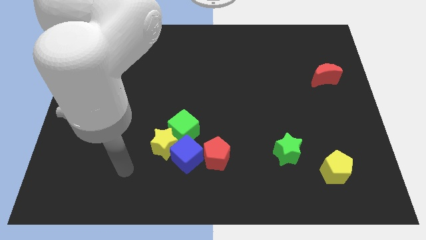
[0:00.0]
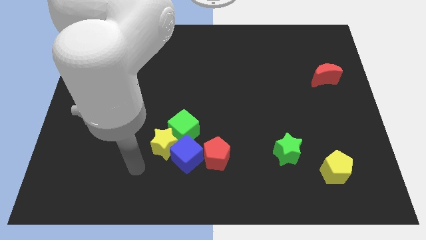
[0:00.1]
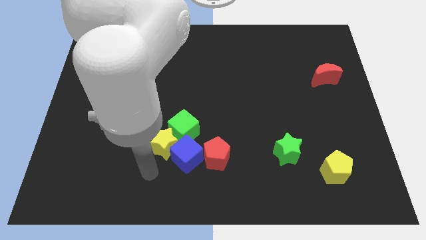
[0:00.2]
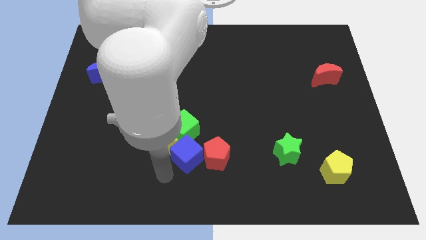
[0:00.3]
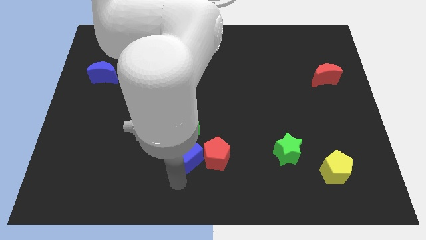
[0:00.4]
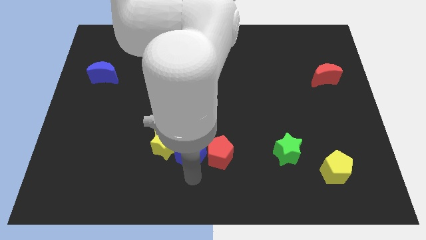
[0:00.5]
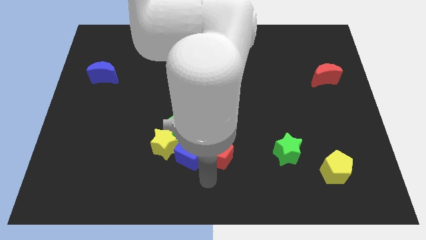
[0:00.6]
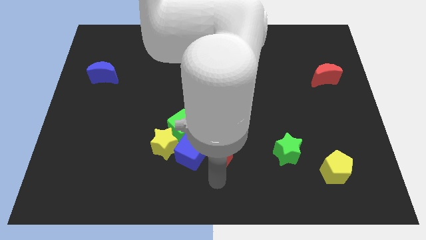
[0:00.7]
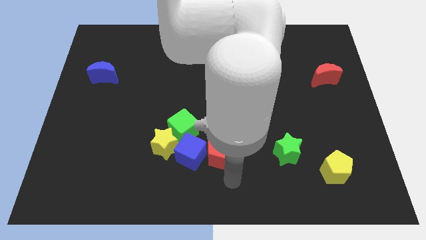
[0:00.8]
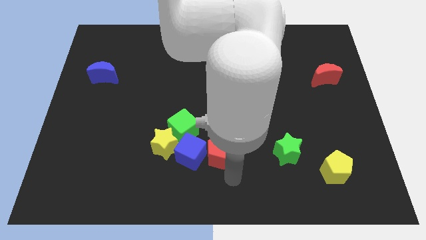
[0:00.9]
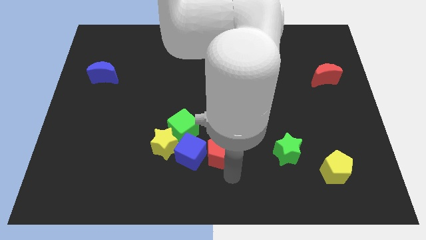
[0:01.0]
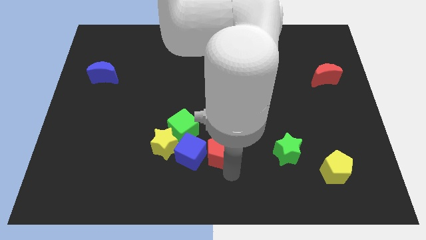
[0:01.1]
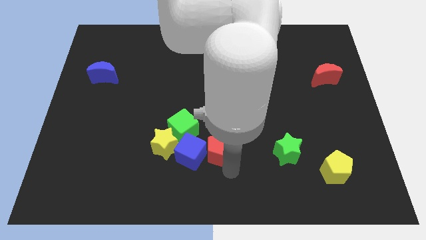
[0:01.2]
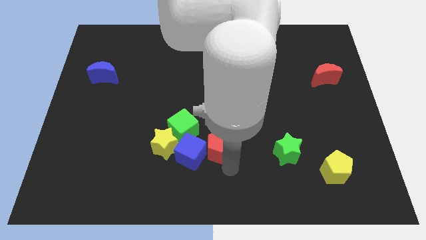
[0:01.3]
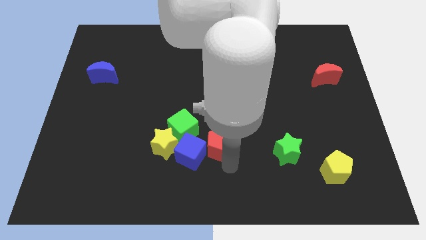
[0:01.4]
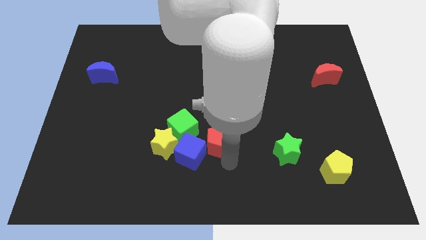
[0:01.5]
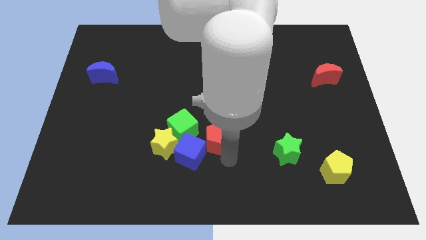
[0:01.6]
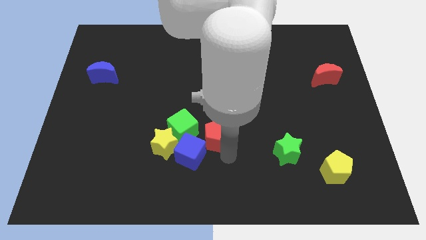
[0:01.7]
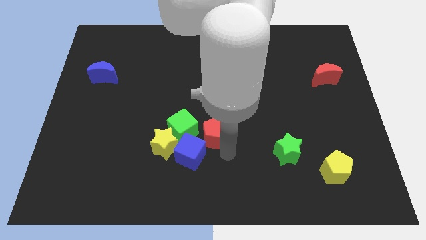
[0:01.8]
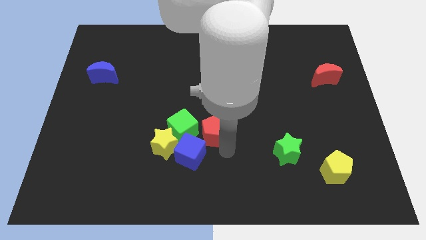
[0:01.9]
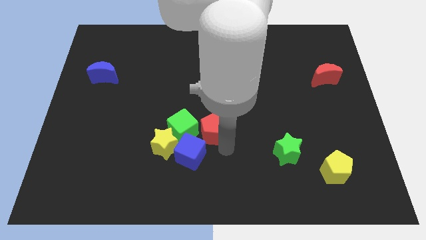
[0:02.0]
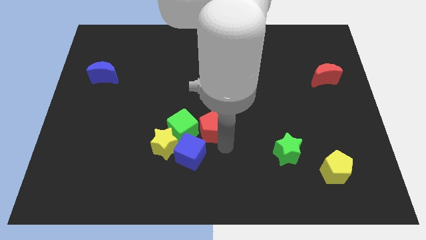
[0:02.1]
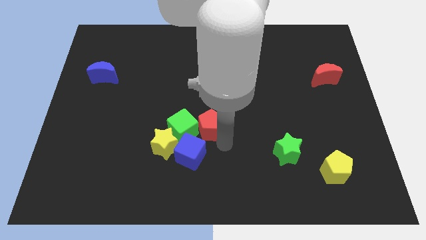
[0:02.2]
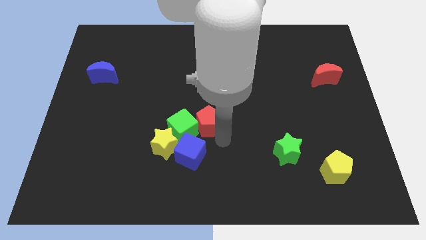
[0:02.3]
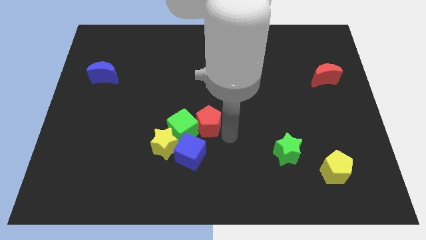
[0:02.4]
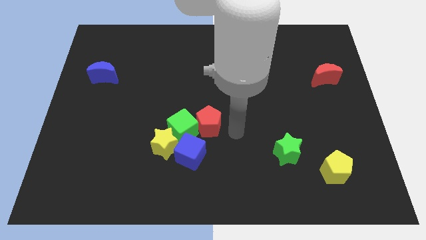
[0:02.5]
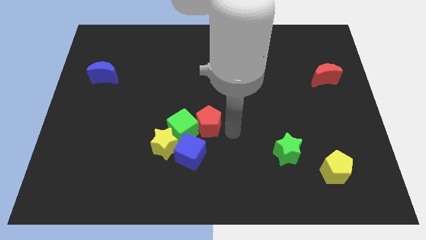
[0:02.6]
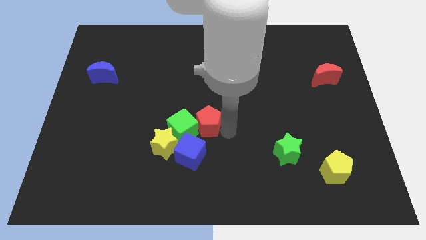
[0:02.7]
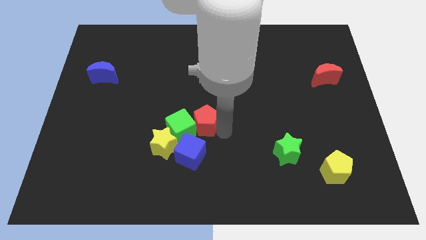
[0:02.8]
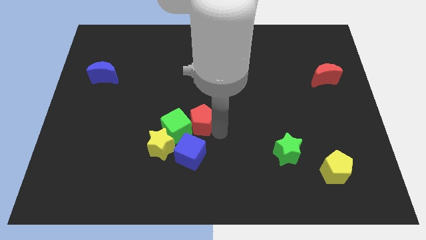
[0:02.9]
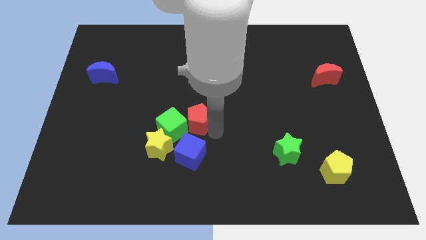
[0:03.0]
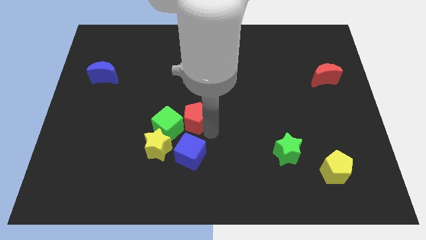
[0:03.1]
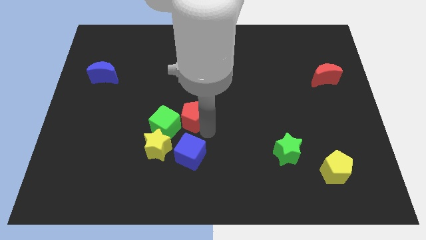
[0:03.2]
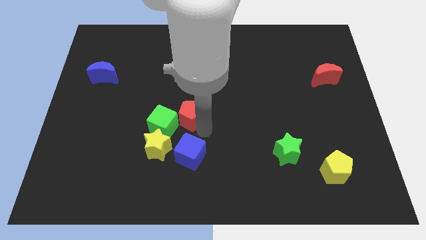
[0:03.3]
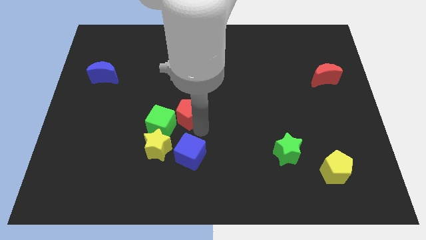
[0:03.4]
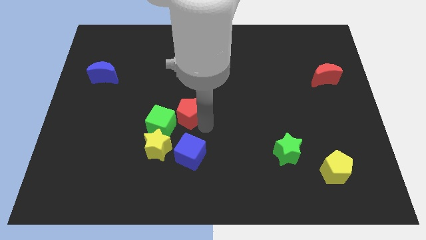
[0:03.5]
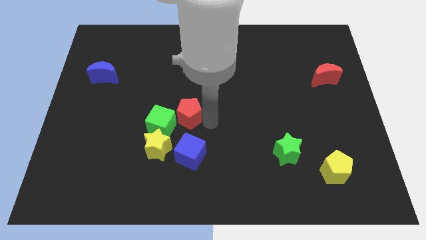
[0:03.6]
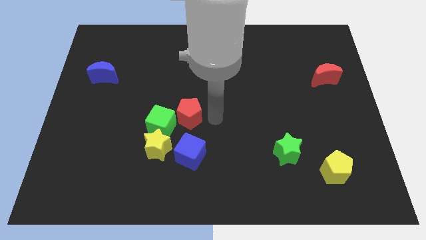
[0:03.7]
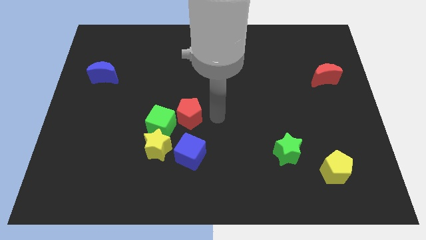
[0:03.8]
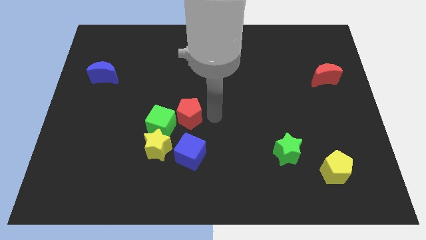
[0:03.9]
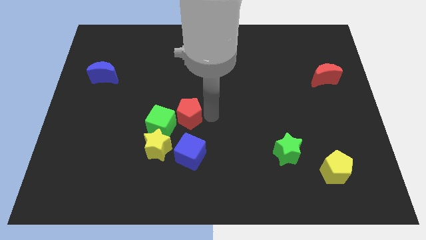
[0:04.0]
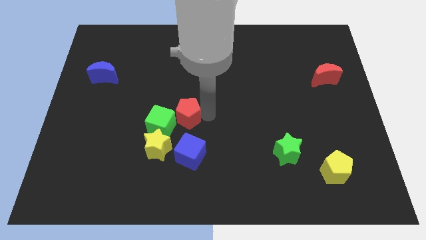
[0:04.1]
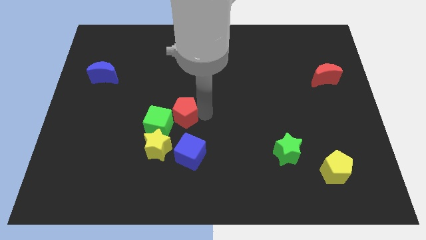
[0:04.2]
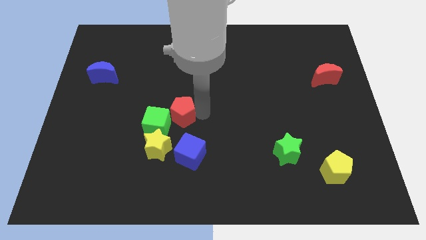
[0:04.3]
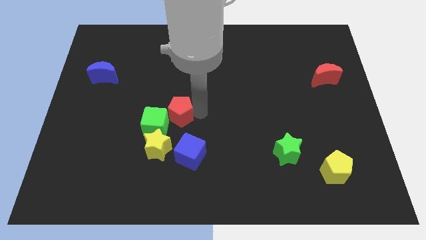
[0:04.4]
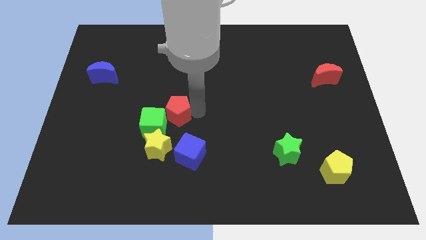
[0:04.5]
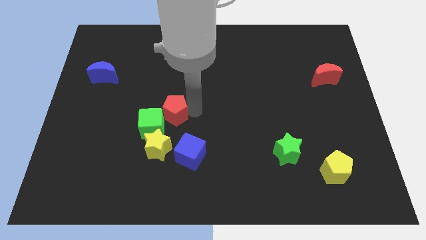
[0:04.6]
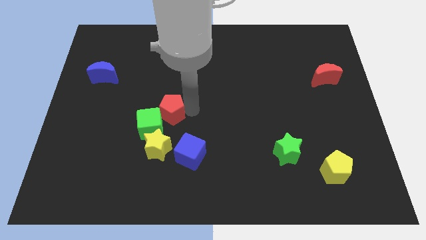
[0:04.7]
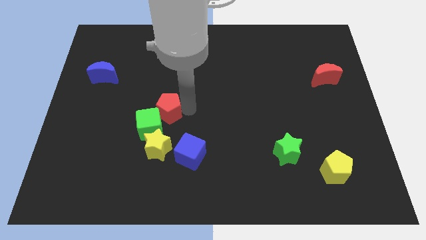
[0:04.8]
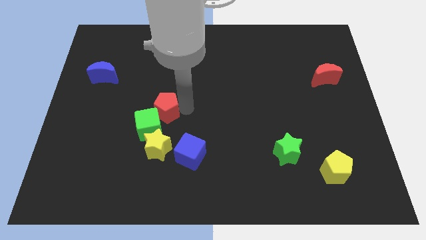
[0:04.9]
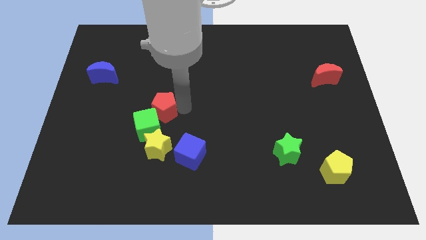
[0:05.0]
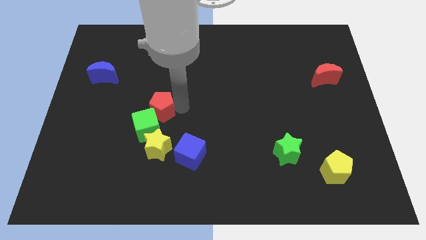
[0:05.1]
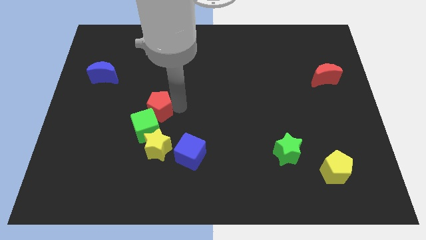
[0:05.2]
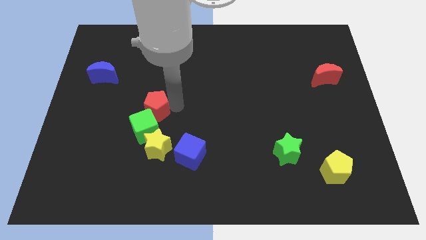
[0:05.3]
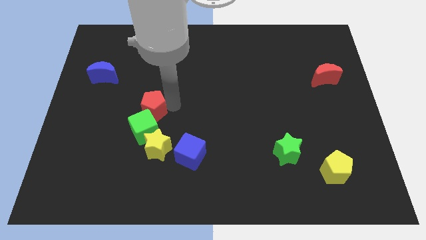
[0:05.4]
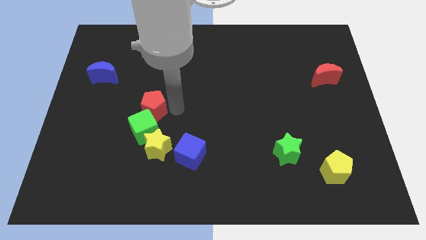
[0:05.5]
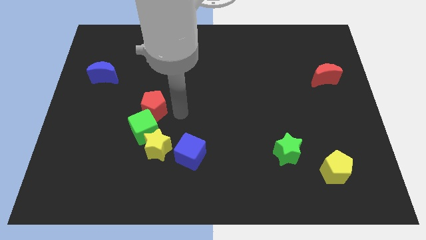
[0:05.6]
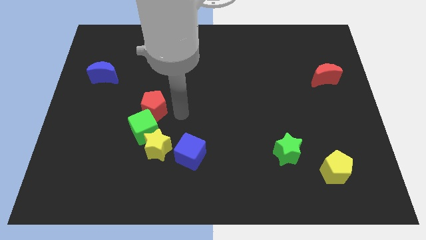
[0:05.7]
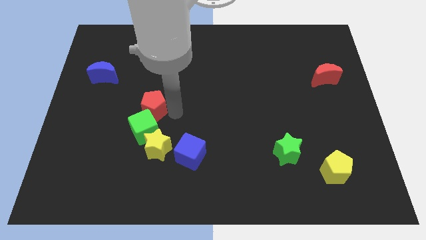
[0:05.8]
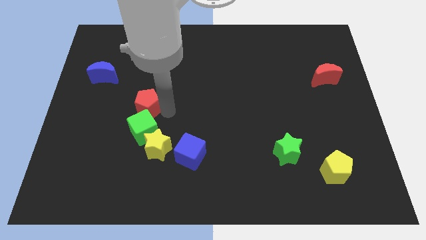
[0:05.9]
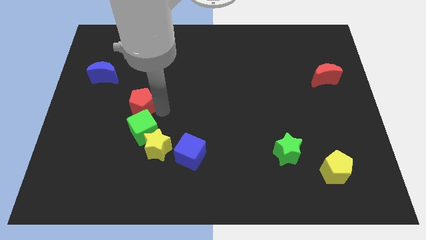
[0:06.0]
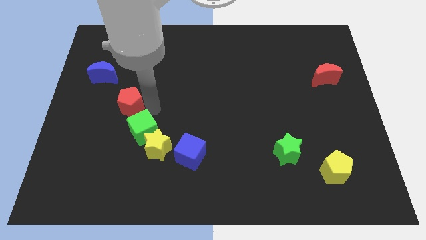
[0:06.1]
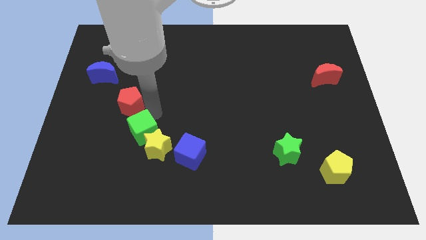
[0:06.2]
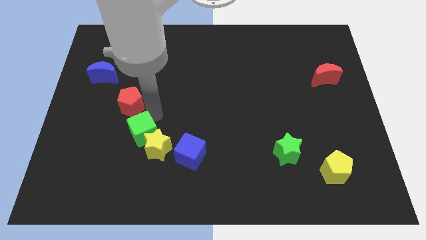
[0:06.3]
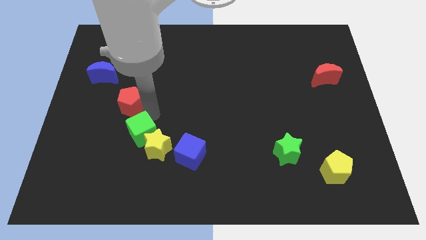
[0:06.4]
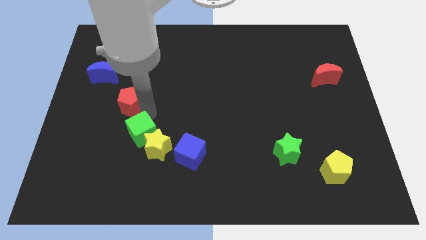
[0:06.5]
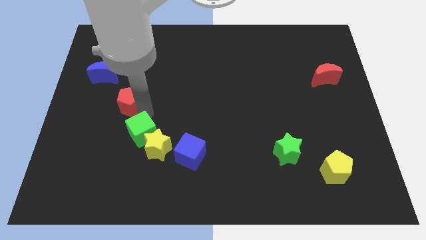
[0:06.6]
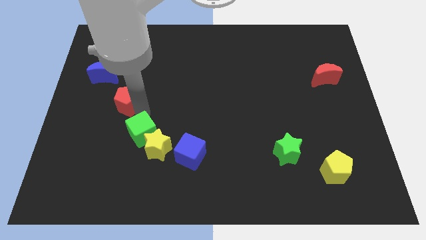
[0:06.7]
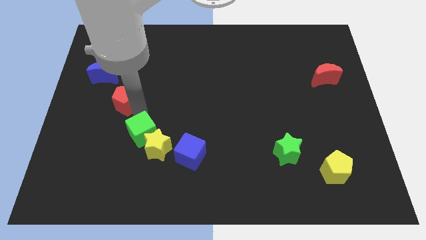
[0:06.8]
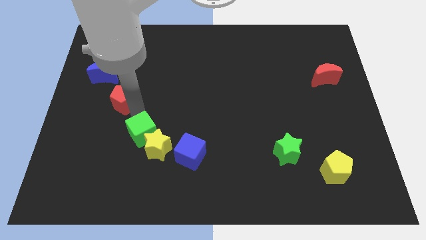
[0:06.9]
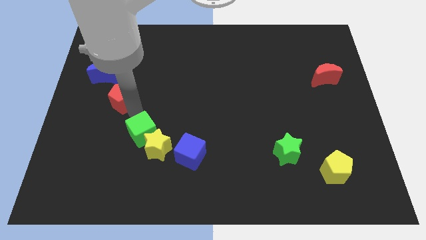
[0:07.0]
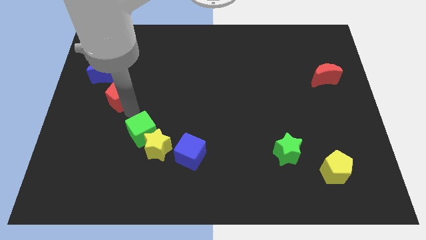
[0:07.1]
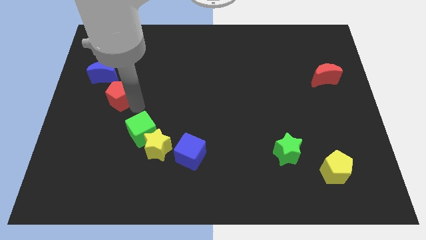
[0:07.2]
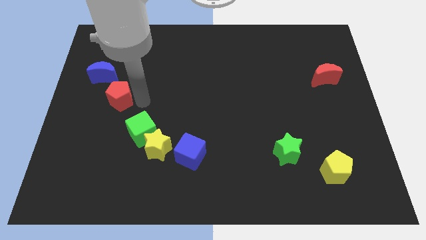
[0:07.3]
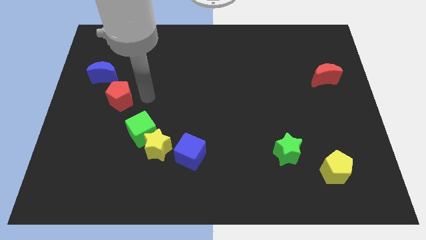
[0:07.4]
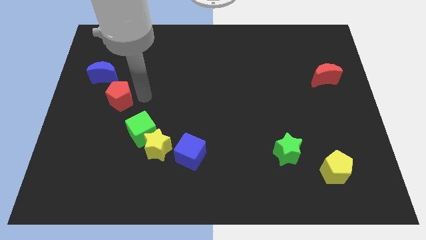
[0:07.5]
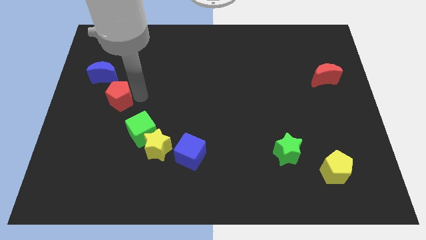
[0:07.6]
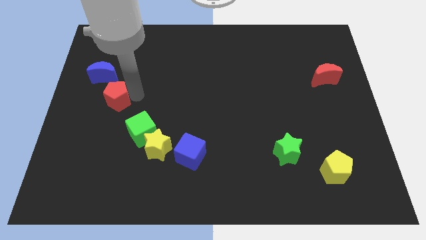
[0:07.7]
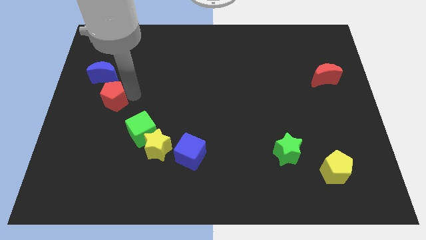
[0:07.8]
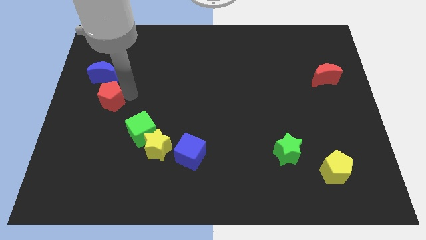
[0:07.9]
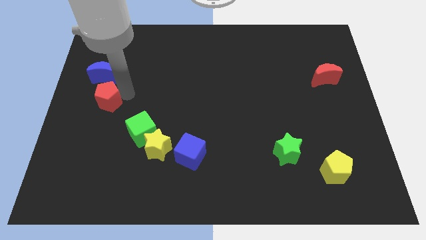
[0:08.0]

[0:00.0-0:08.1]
push the red pentagon to the center left
